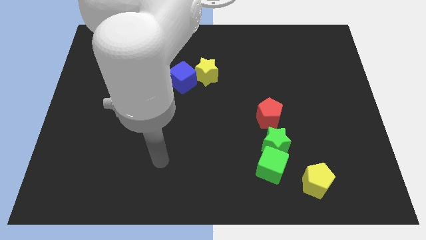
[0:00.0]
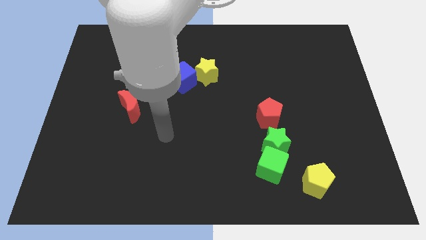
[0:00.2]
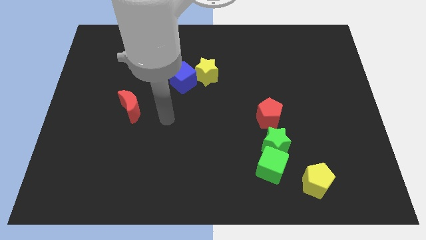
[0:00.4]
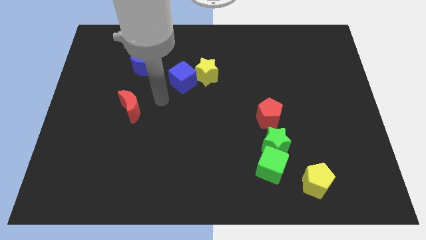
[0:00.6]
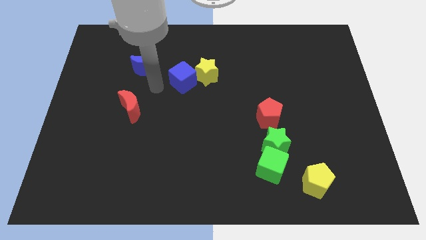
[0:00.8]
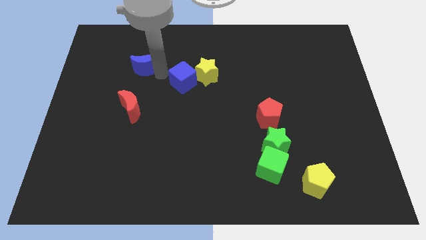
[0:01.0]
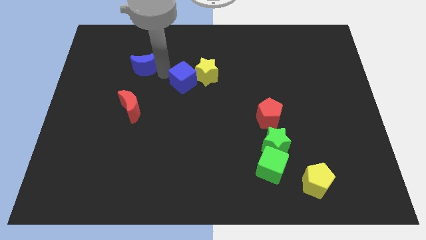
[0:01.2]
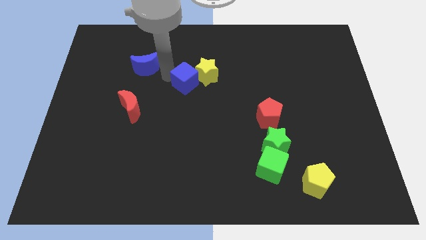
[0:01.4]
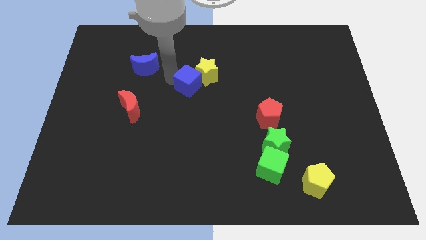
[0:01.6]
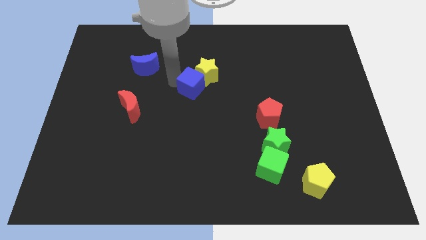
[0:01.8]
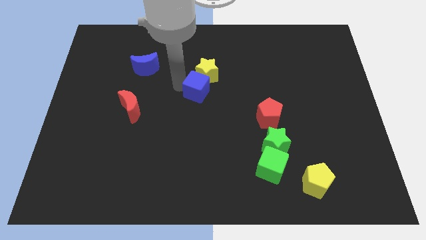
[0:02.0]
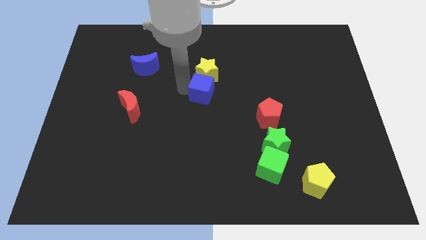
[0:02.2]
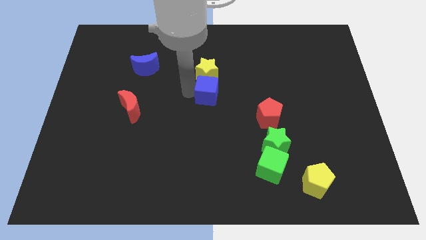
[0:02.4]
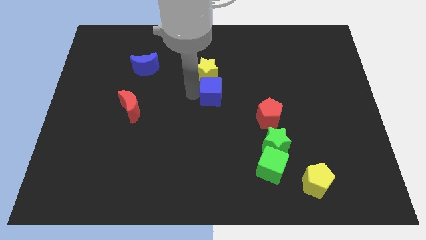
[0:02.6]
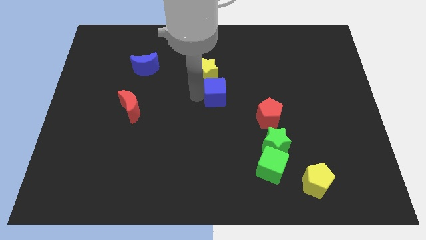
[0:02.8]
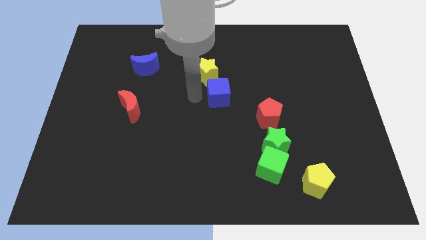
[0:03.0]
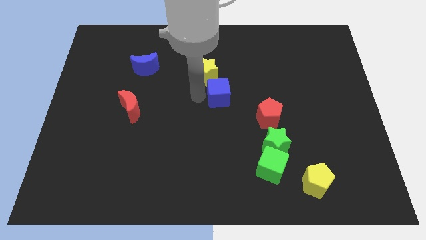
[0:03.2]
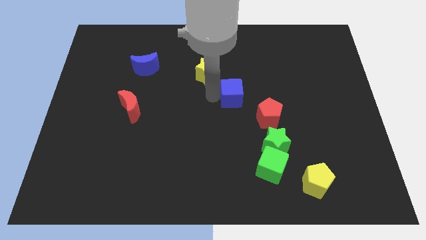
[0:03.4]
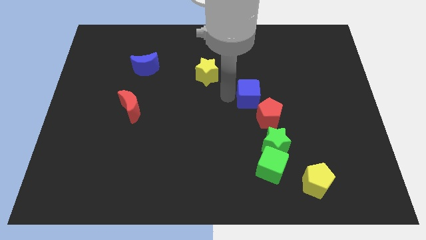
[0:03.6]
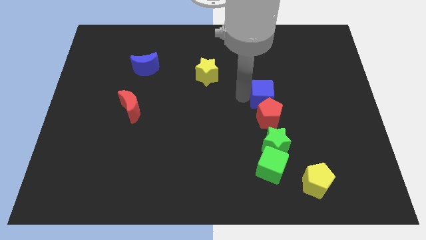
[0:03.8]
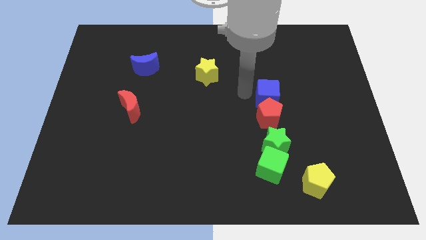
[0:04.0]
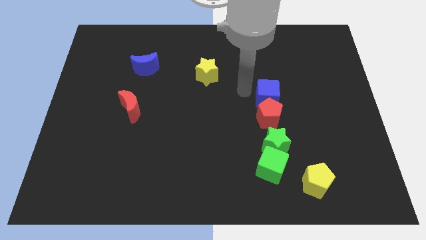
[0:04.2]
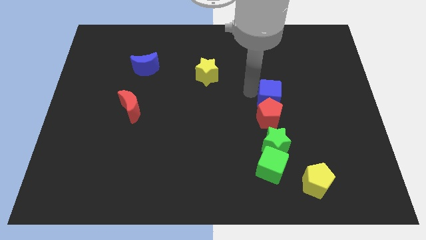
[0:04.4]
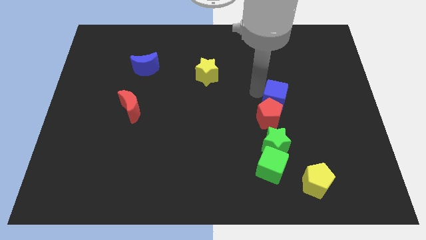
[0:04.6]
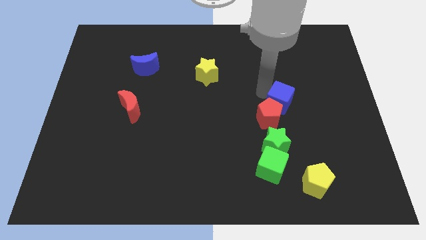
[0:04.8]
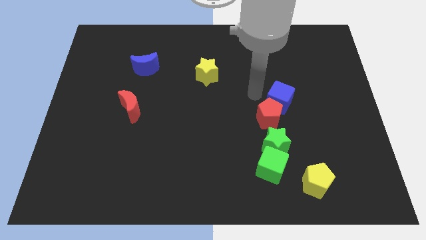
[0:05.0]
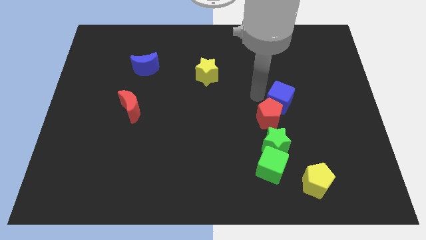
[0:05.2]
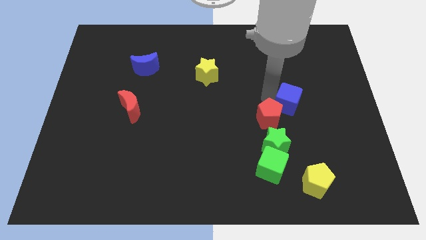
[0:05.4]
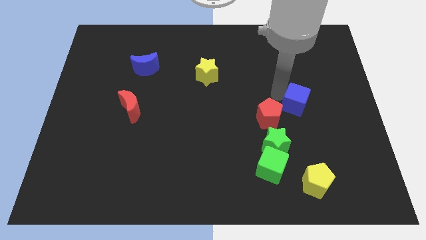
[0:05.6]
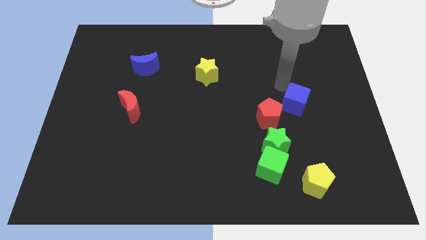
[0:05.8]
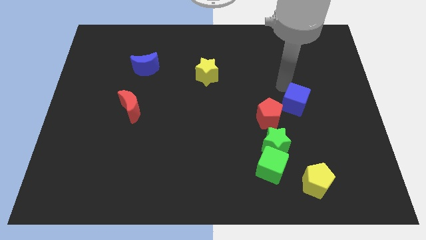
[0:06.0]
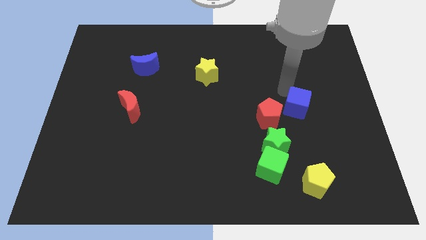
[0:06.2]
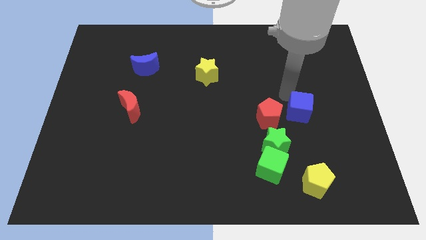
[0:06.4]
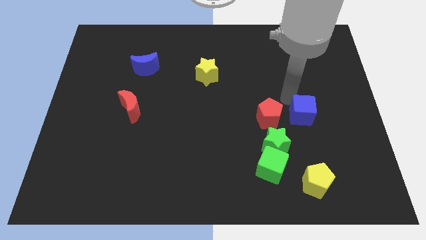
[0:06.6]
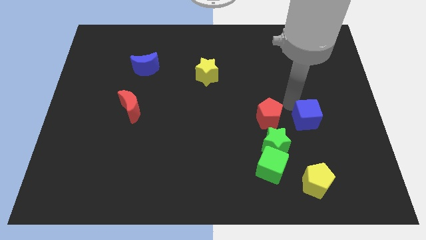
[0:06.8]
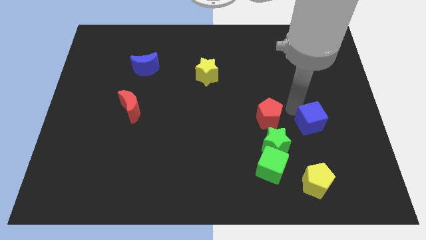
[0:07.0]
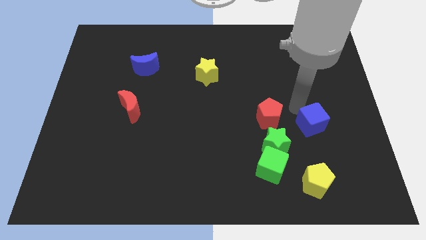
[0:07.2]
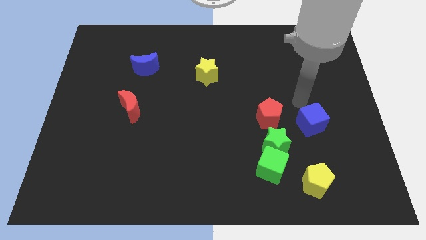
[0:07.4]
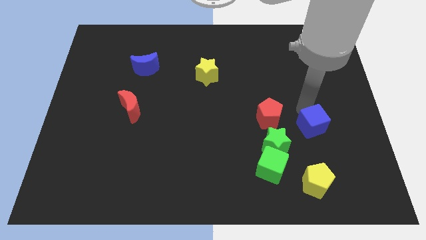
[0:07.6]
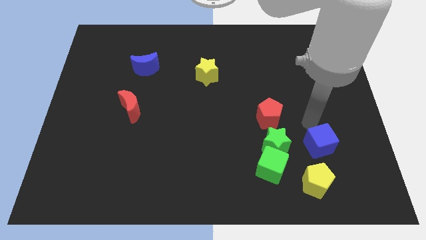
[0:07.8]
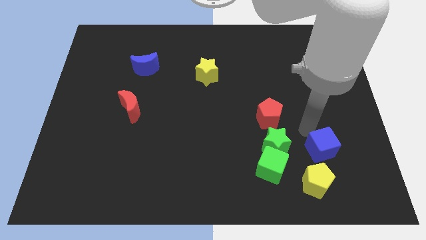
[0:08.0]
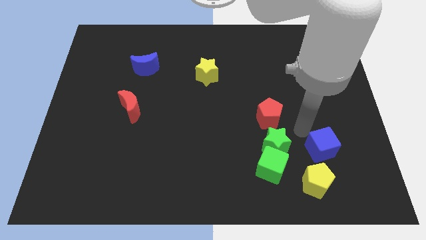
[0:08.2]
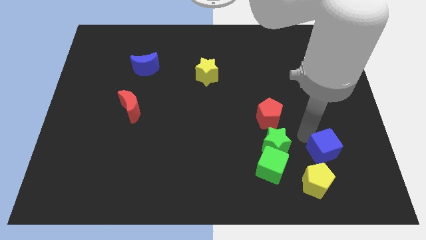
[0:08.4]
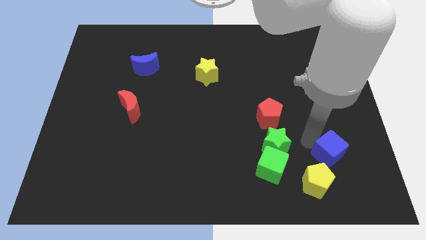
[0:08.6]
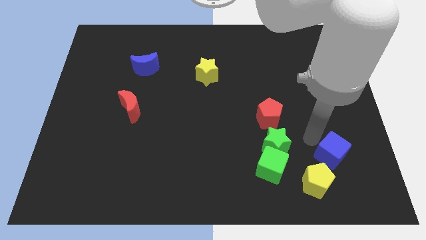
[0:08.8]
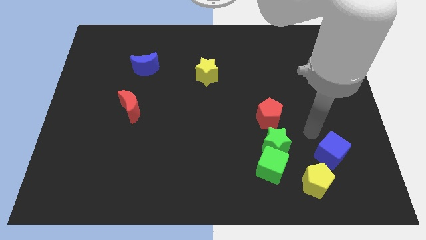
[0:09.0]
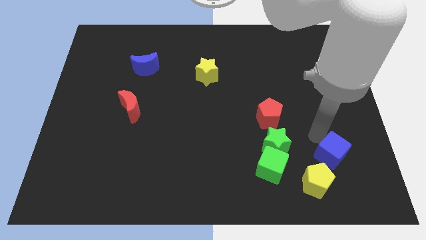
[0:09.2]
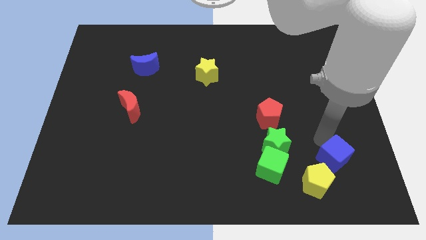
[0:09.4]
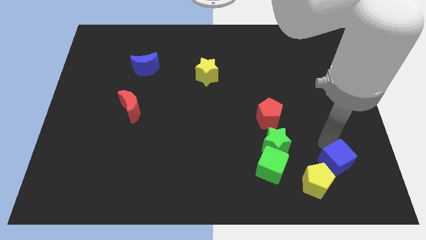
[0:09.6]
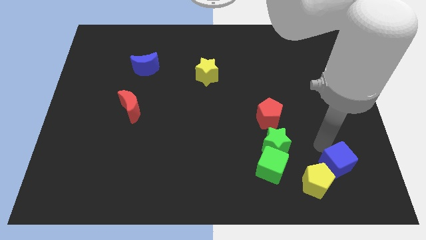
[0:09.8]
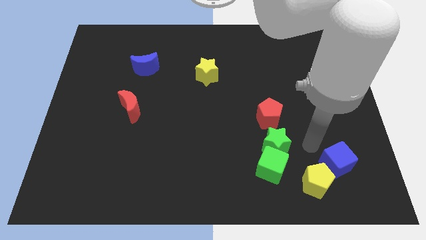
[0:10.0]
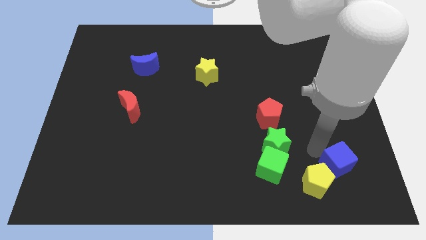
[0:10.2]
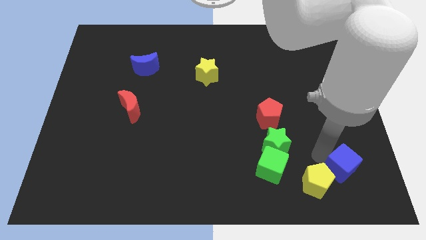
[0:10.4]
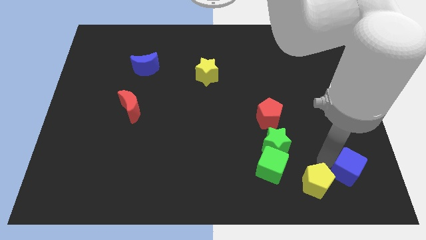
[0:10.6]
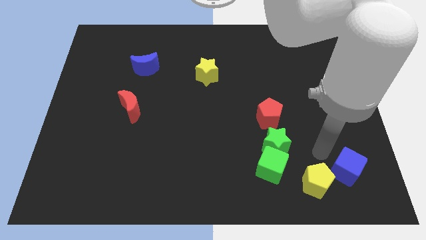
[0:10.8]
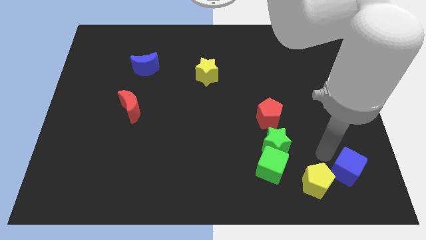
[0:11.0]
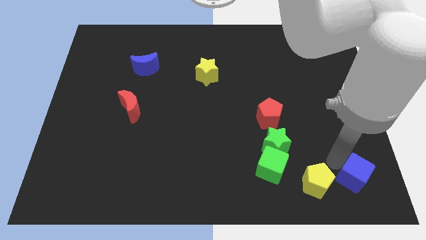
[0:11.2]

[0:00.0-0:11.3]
slide the blue cube to the bottom right
